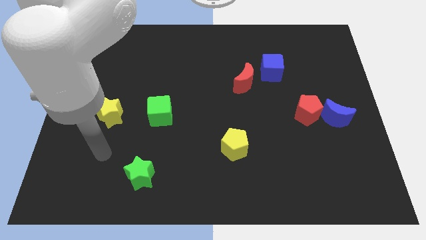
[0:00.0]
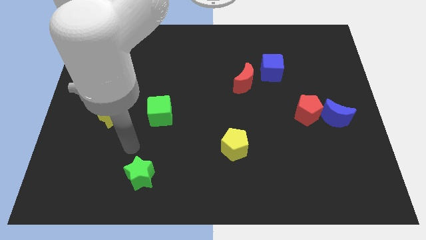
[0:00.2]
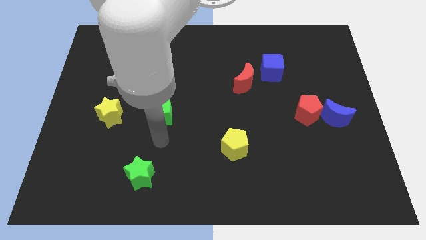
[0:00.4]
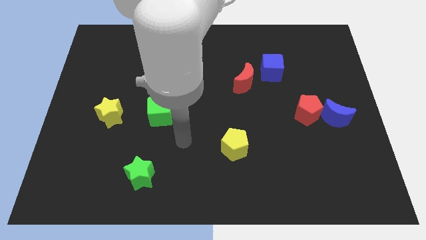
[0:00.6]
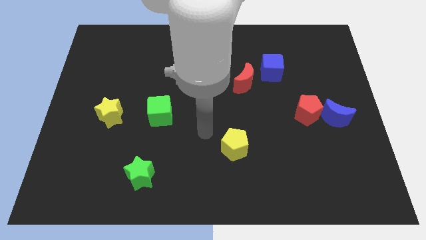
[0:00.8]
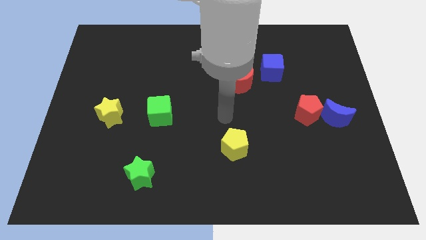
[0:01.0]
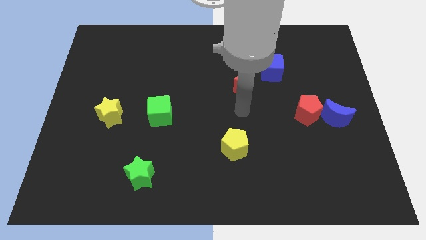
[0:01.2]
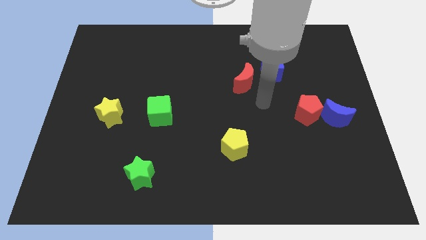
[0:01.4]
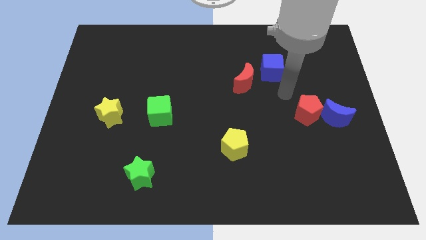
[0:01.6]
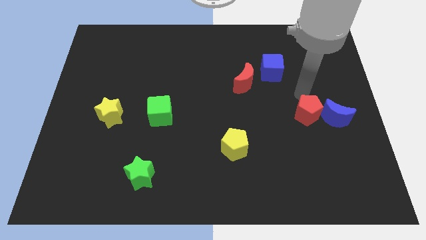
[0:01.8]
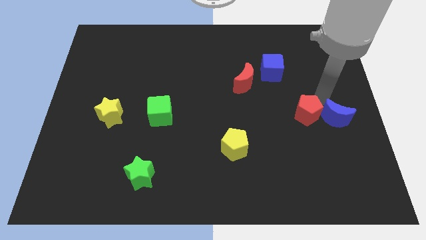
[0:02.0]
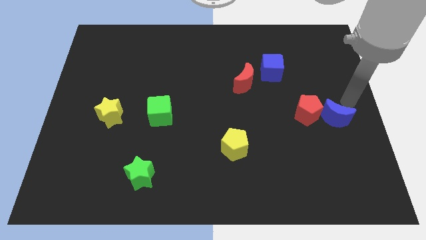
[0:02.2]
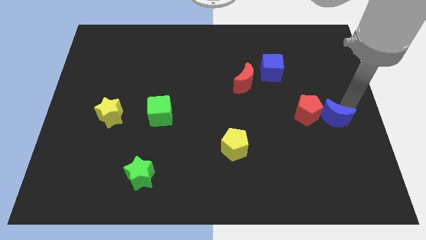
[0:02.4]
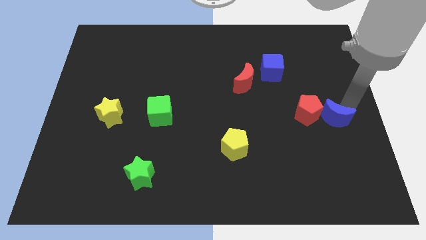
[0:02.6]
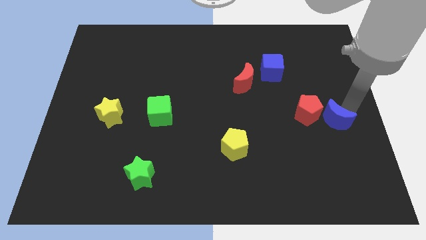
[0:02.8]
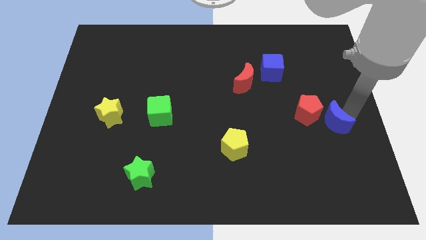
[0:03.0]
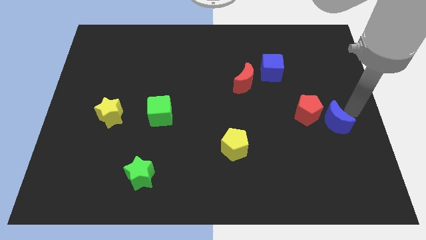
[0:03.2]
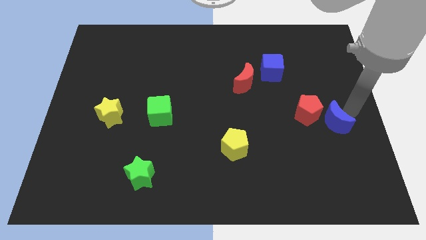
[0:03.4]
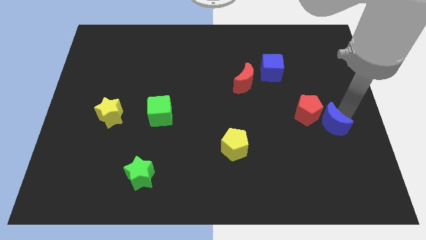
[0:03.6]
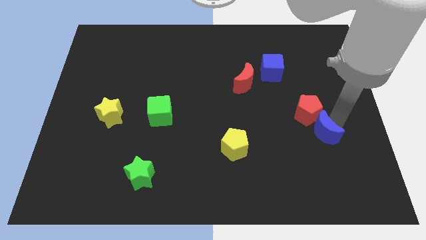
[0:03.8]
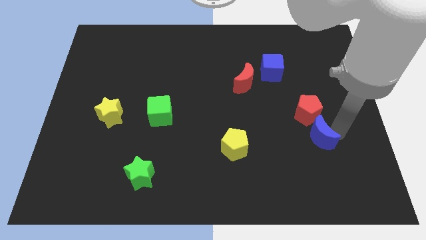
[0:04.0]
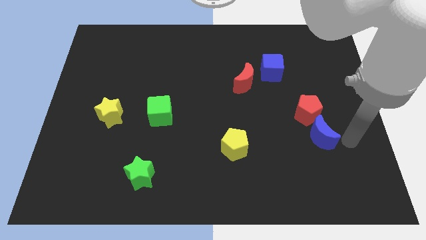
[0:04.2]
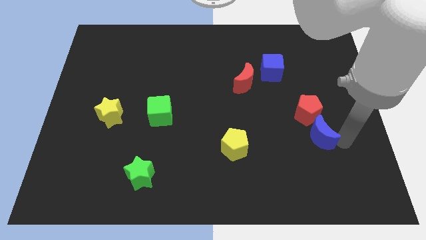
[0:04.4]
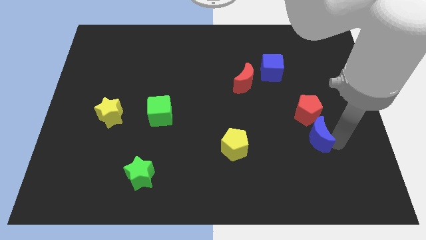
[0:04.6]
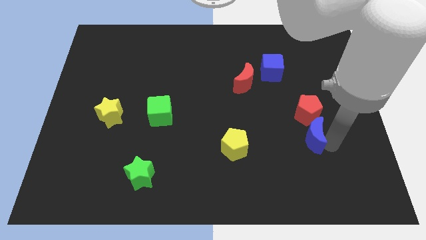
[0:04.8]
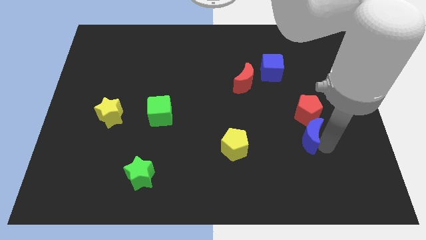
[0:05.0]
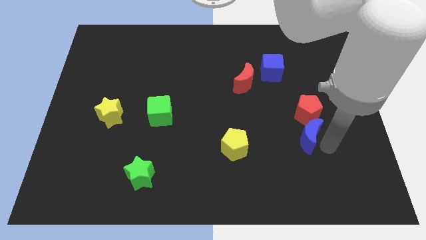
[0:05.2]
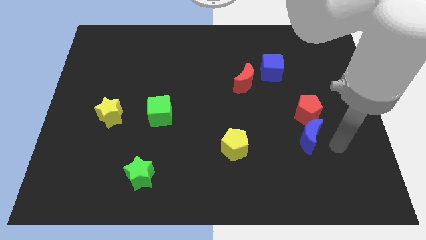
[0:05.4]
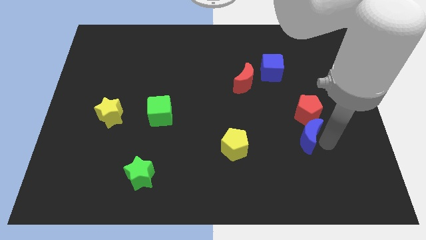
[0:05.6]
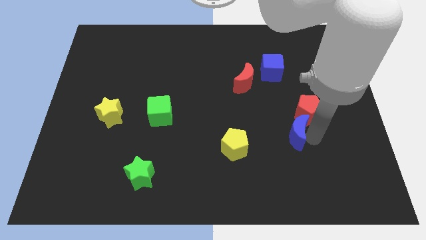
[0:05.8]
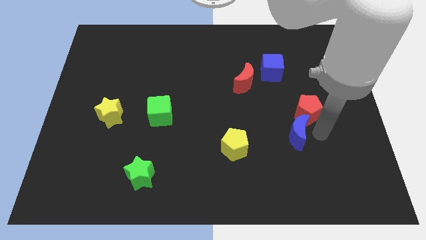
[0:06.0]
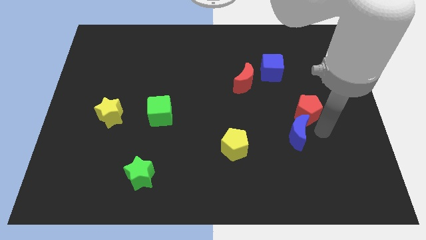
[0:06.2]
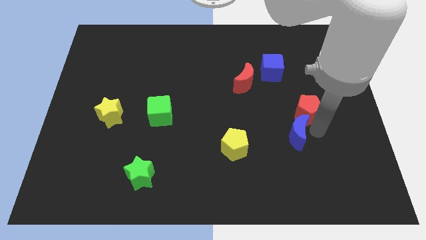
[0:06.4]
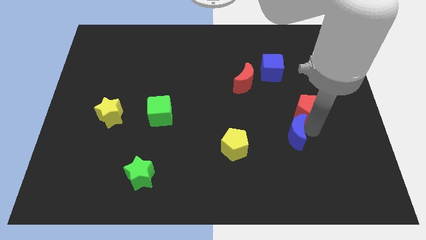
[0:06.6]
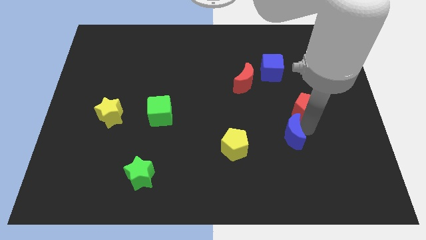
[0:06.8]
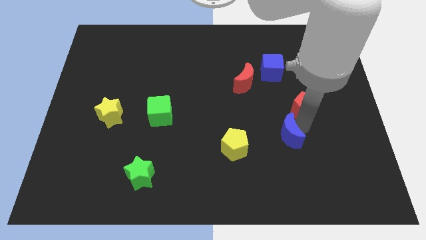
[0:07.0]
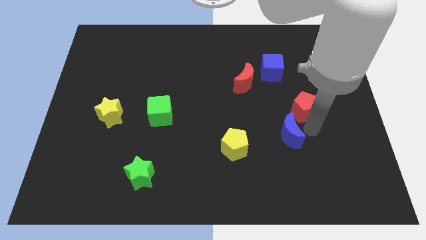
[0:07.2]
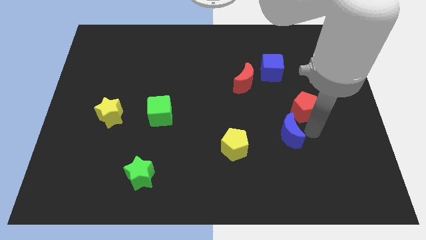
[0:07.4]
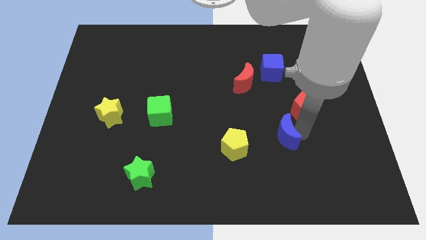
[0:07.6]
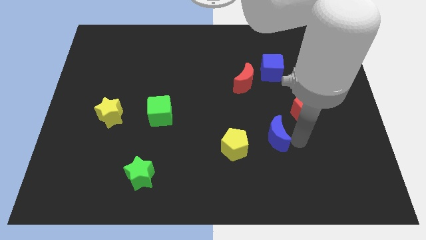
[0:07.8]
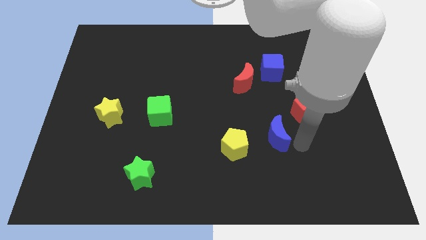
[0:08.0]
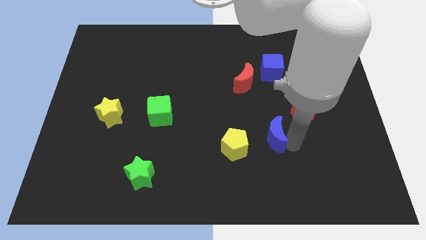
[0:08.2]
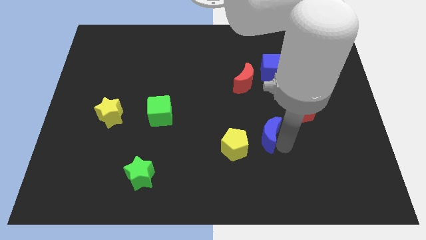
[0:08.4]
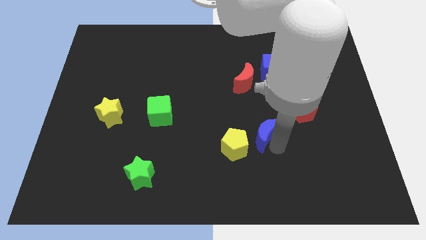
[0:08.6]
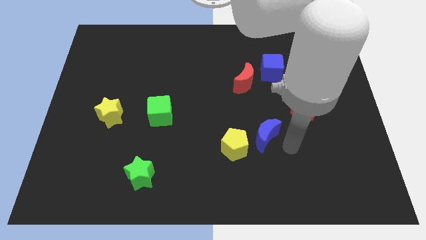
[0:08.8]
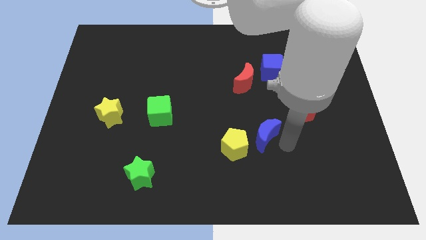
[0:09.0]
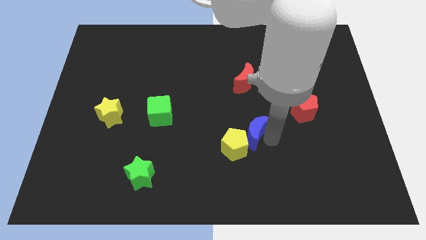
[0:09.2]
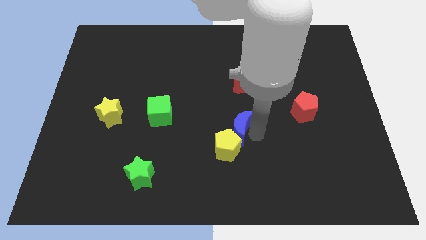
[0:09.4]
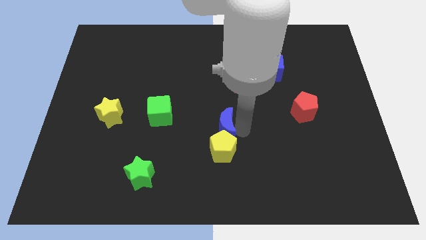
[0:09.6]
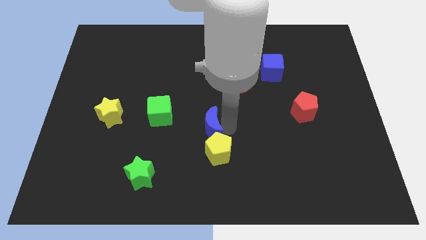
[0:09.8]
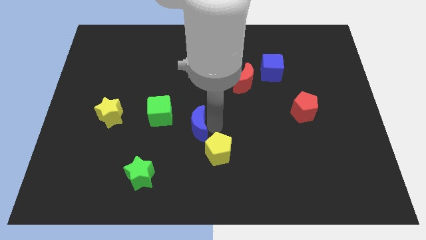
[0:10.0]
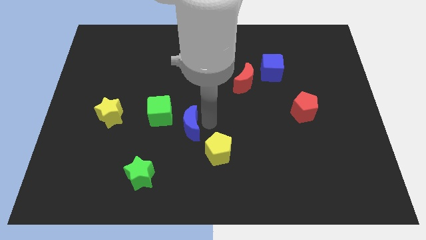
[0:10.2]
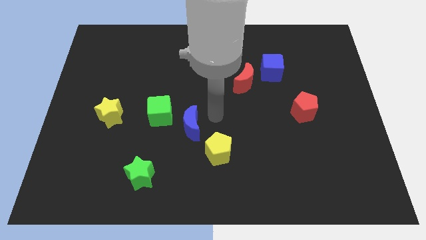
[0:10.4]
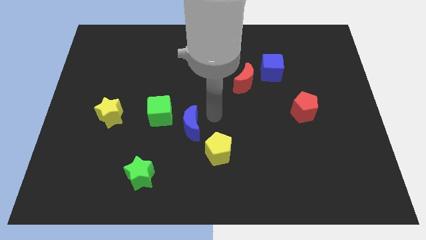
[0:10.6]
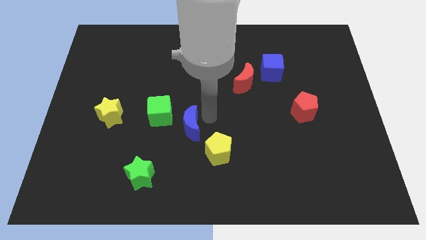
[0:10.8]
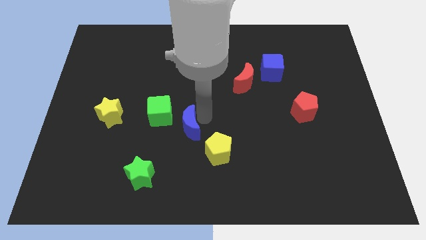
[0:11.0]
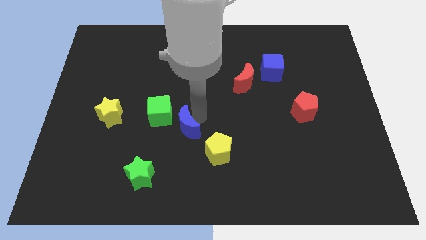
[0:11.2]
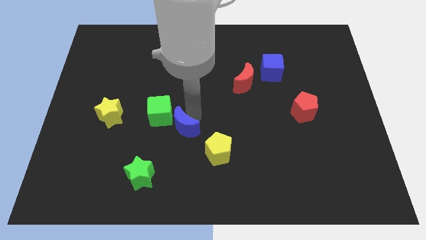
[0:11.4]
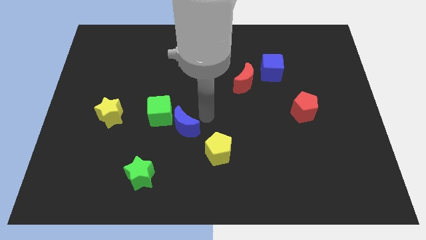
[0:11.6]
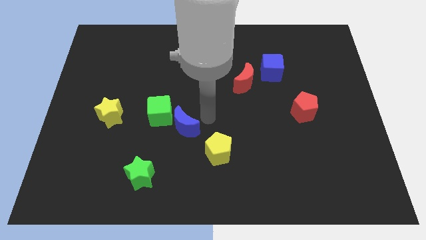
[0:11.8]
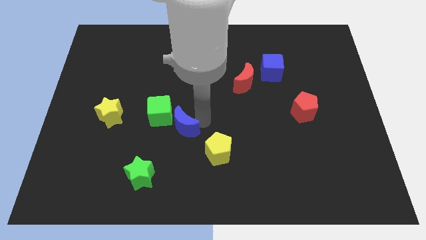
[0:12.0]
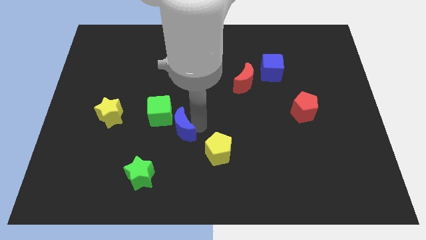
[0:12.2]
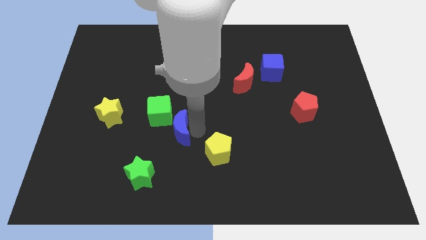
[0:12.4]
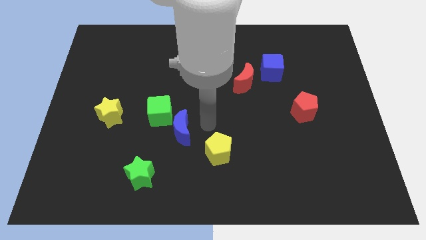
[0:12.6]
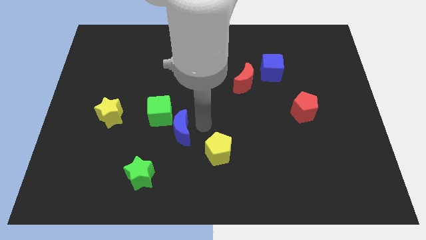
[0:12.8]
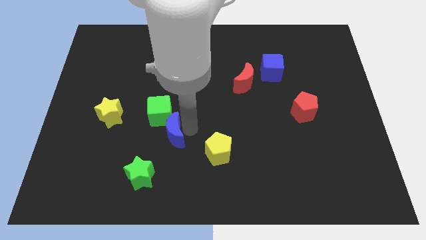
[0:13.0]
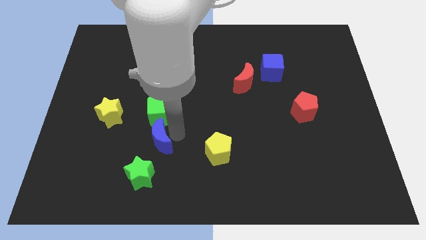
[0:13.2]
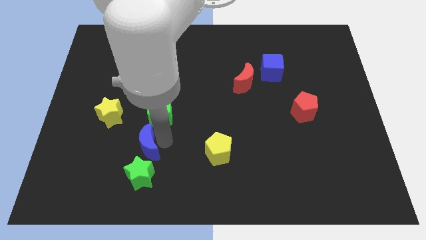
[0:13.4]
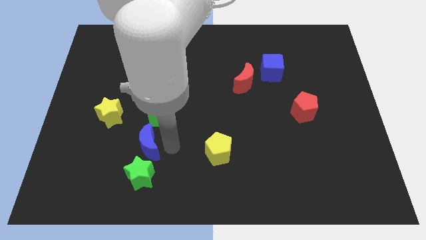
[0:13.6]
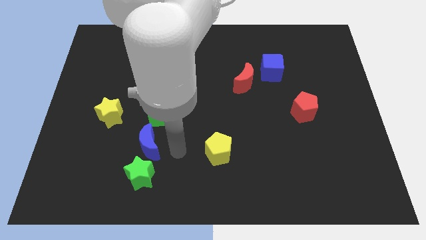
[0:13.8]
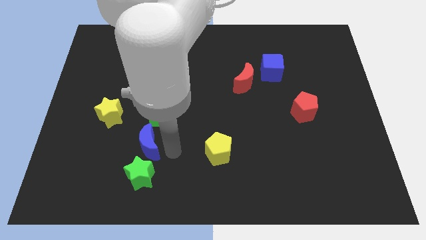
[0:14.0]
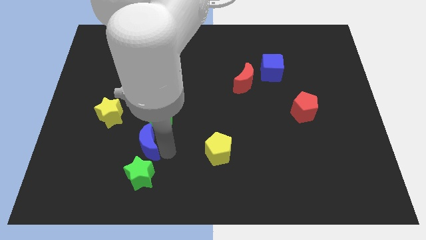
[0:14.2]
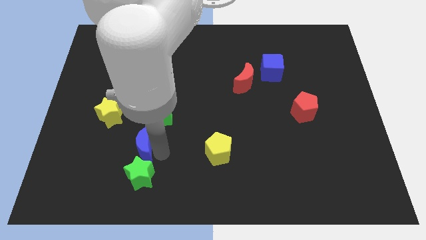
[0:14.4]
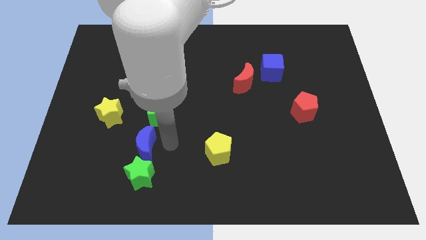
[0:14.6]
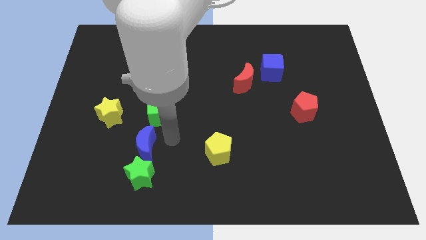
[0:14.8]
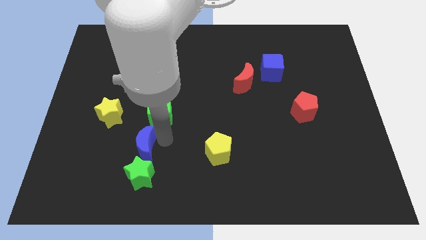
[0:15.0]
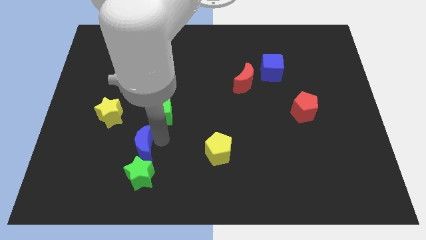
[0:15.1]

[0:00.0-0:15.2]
put the blue moon diagonally up and to the left of the green star
